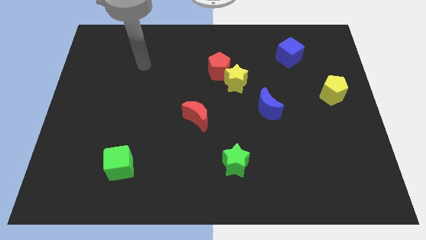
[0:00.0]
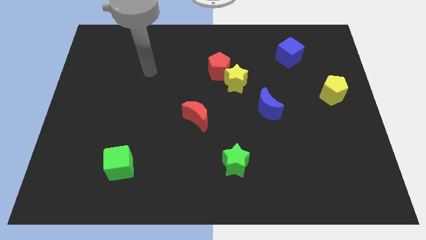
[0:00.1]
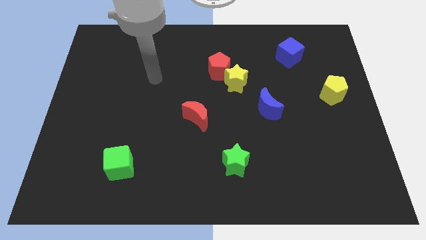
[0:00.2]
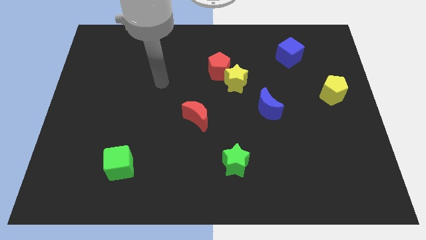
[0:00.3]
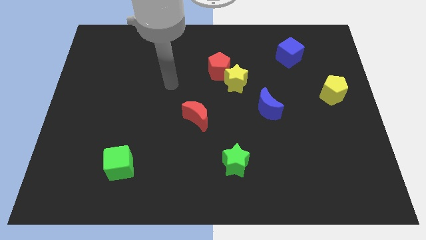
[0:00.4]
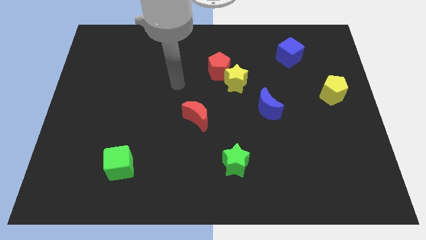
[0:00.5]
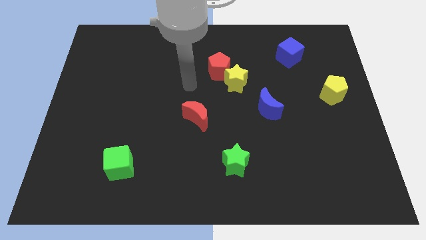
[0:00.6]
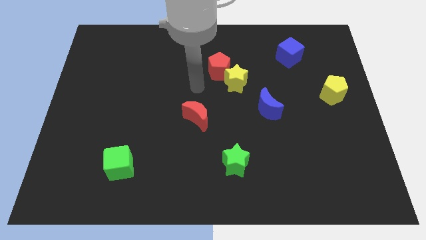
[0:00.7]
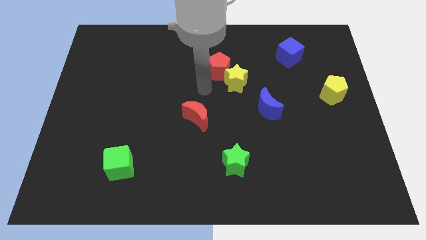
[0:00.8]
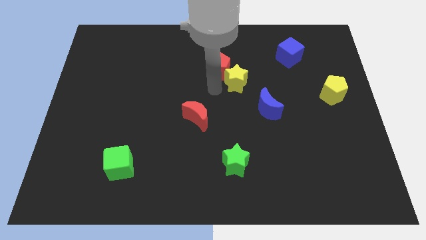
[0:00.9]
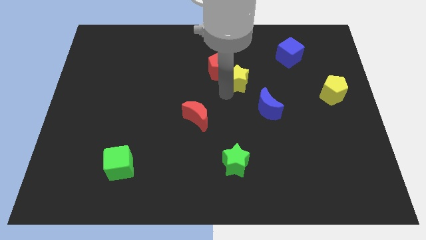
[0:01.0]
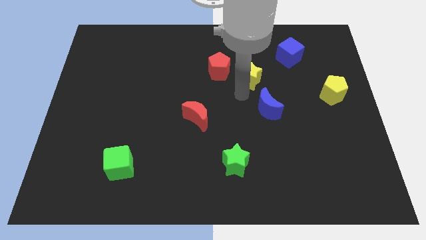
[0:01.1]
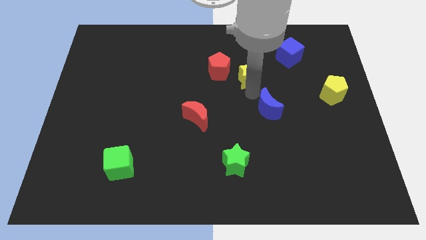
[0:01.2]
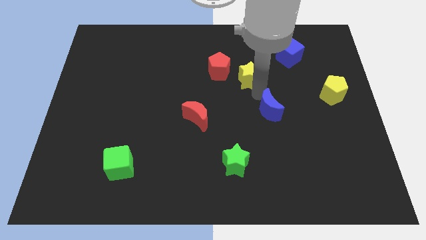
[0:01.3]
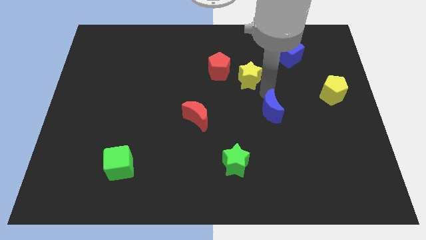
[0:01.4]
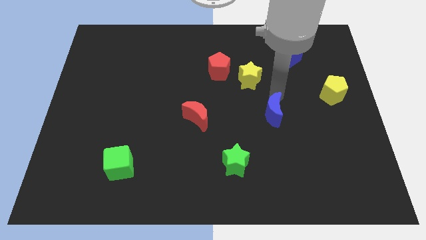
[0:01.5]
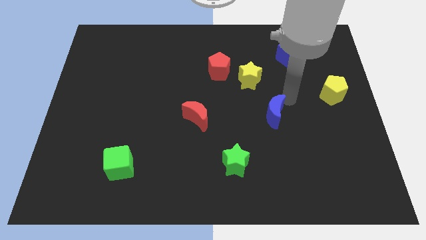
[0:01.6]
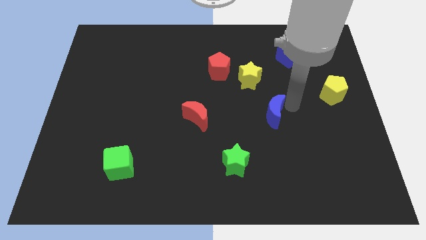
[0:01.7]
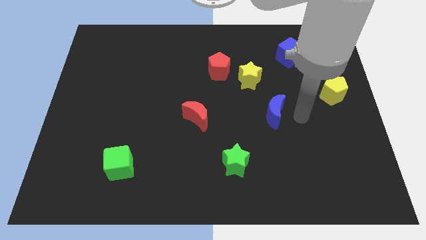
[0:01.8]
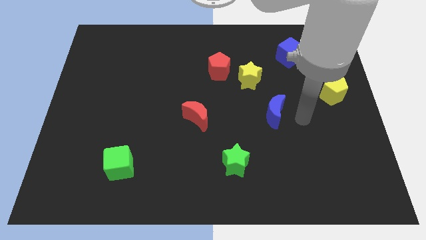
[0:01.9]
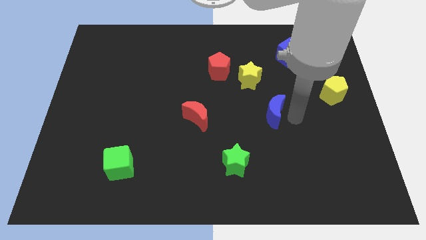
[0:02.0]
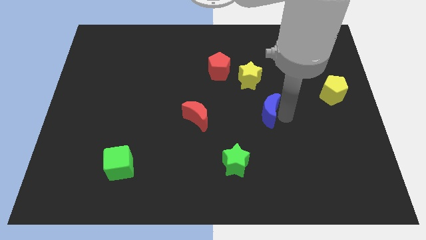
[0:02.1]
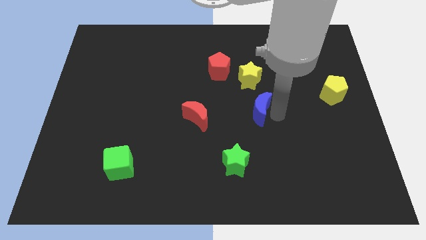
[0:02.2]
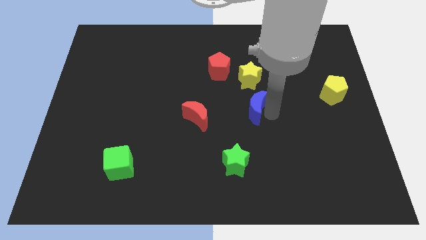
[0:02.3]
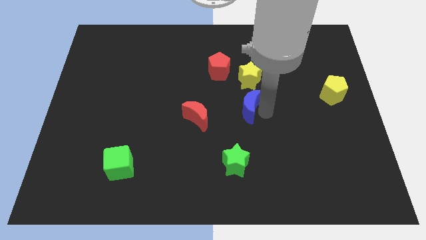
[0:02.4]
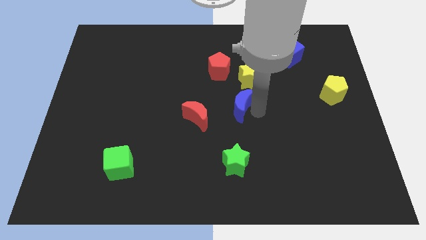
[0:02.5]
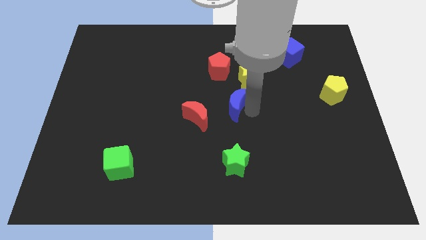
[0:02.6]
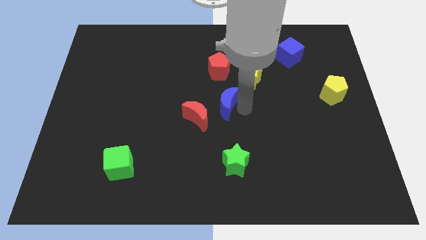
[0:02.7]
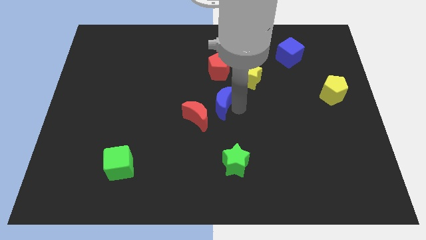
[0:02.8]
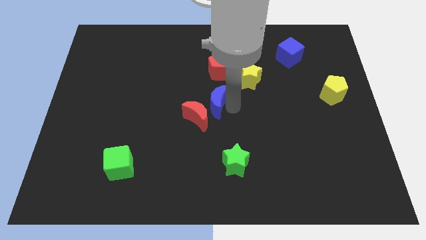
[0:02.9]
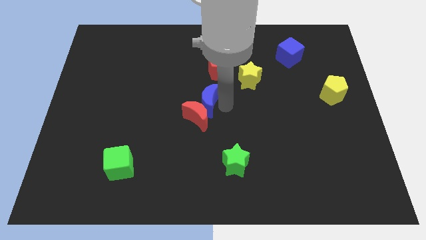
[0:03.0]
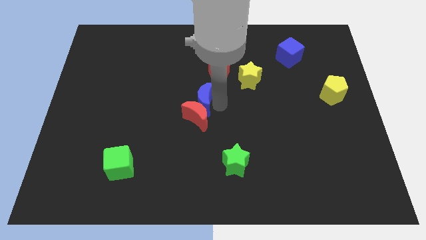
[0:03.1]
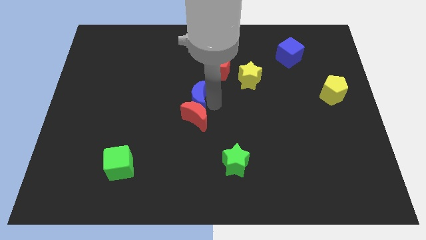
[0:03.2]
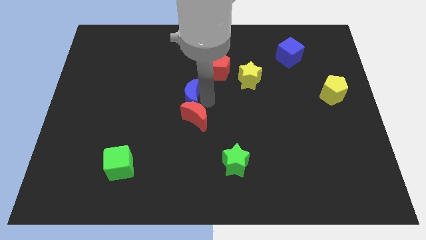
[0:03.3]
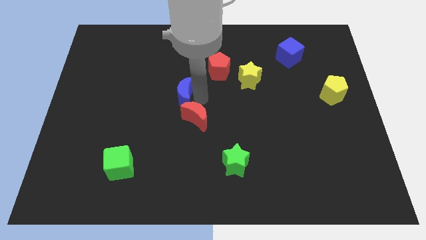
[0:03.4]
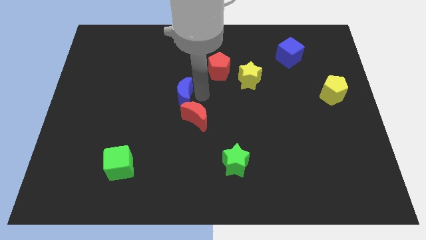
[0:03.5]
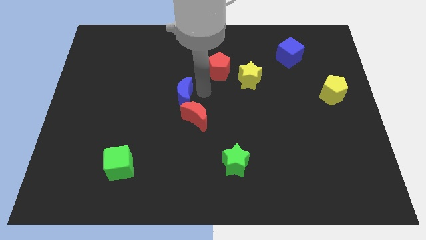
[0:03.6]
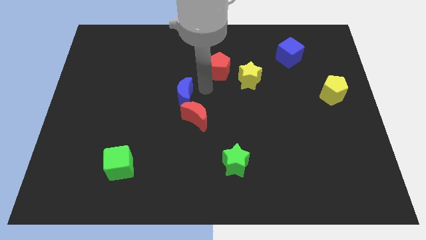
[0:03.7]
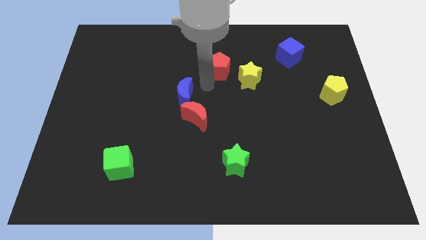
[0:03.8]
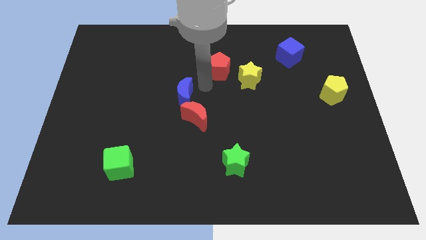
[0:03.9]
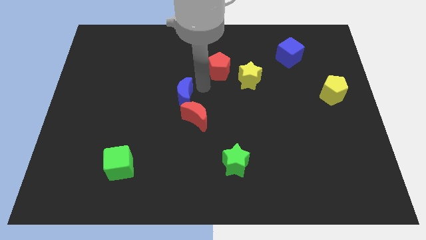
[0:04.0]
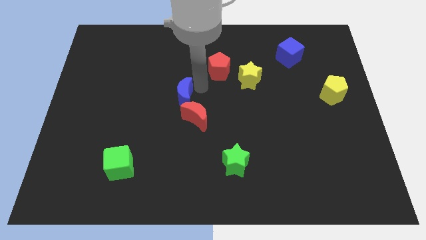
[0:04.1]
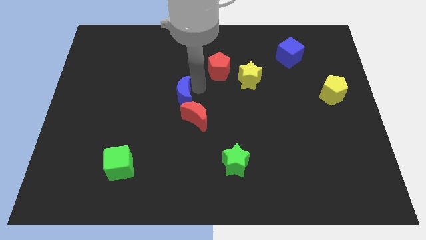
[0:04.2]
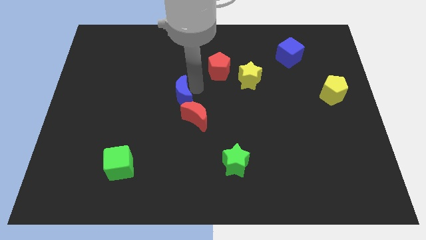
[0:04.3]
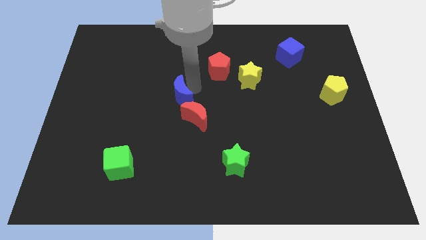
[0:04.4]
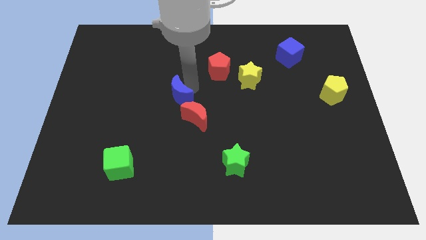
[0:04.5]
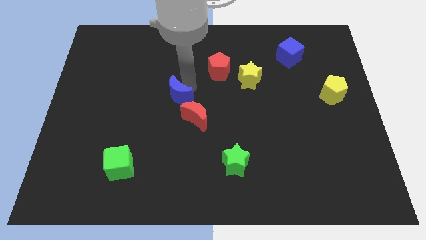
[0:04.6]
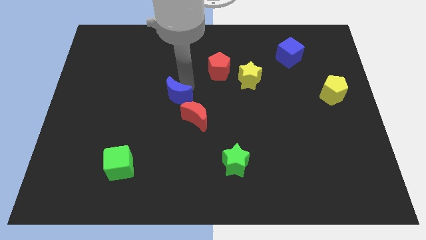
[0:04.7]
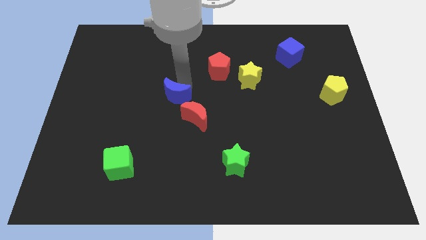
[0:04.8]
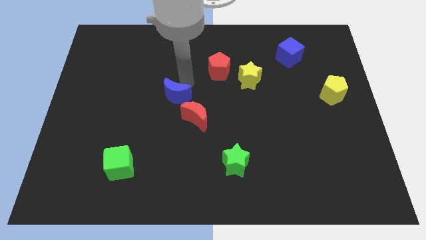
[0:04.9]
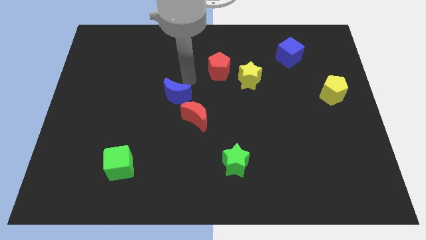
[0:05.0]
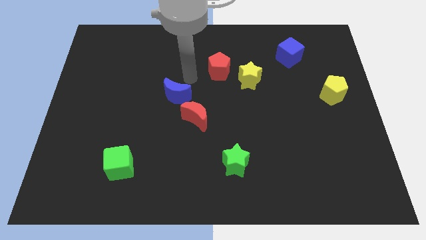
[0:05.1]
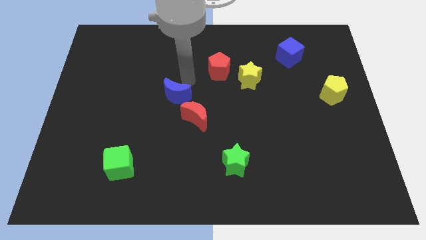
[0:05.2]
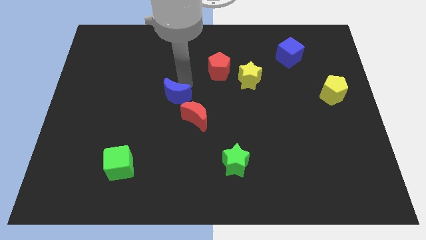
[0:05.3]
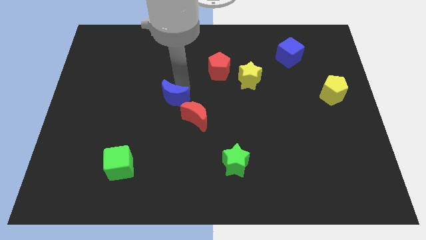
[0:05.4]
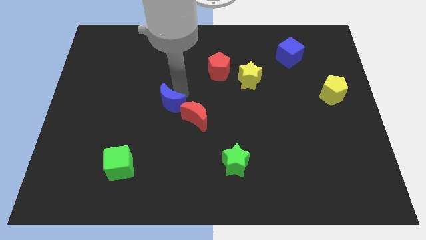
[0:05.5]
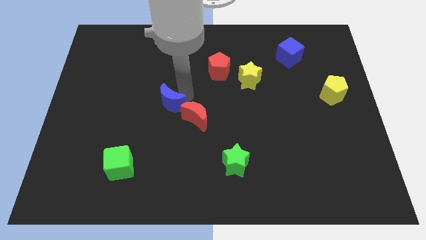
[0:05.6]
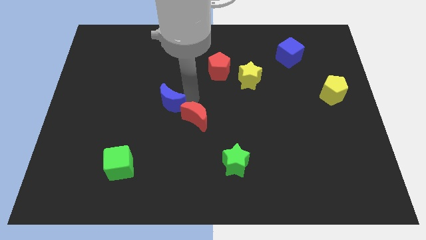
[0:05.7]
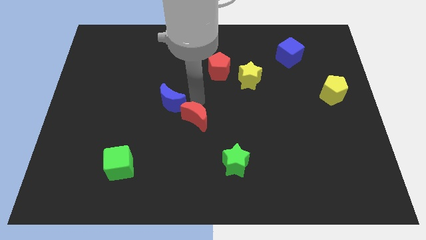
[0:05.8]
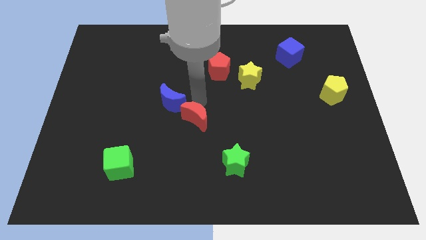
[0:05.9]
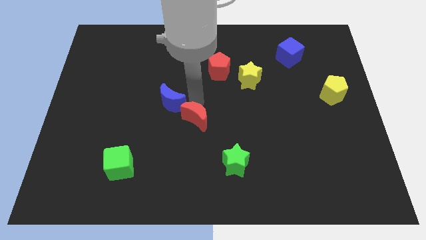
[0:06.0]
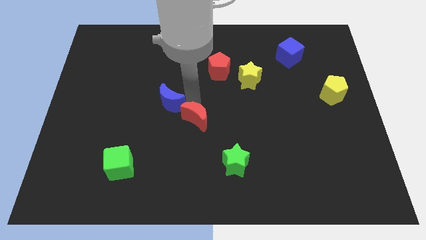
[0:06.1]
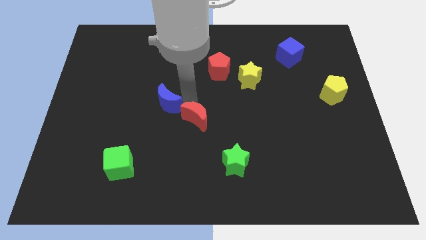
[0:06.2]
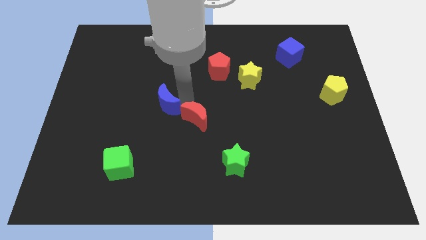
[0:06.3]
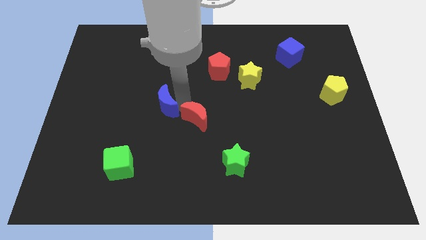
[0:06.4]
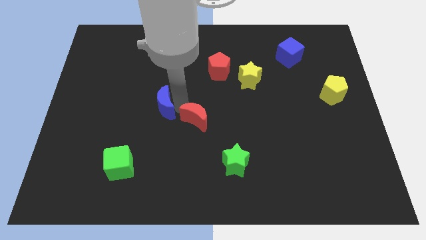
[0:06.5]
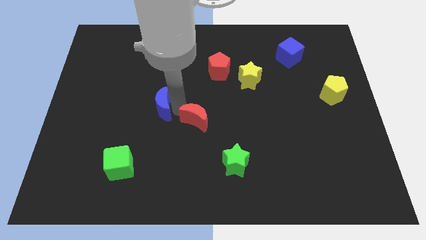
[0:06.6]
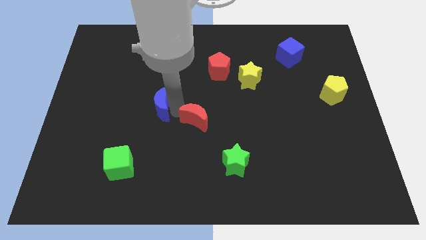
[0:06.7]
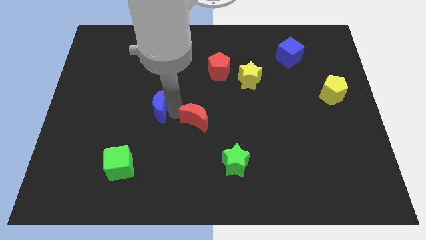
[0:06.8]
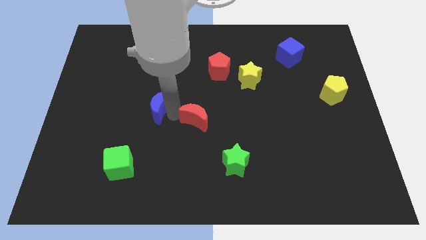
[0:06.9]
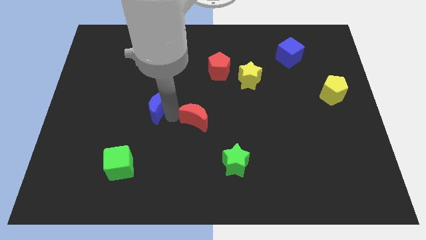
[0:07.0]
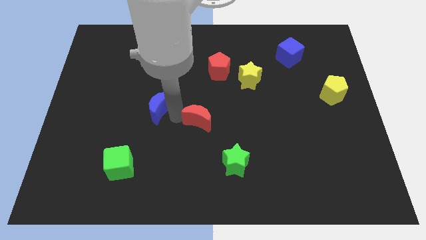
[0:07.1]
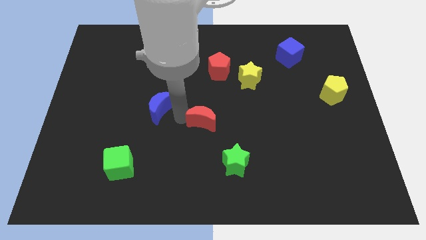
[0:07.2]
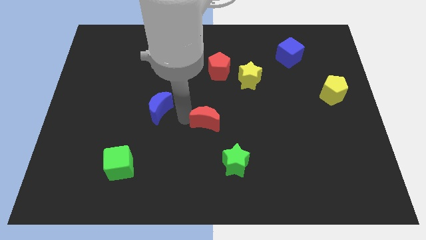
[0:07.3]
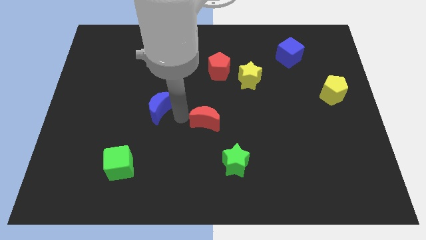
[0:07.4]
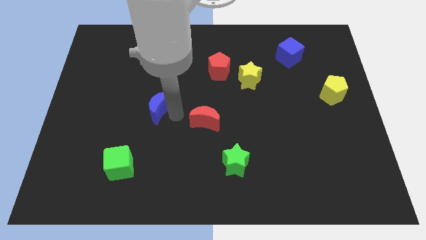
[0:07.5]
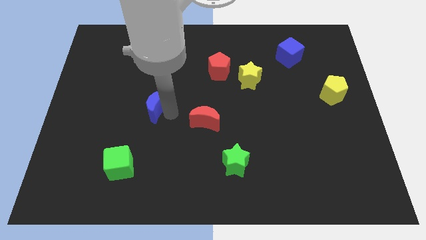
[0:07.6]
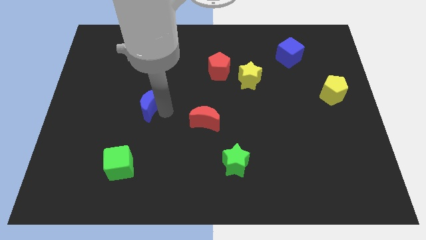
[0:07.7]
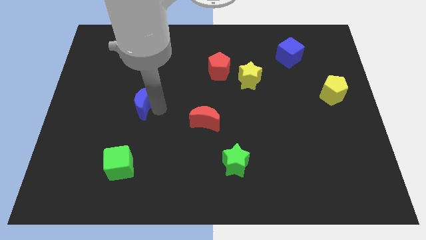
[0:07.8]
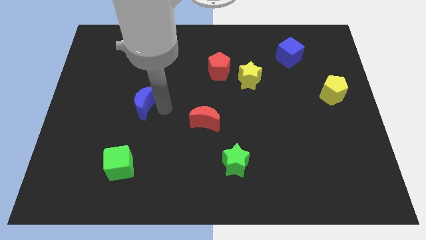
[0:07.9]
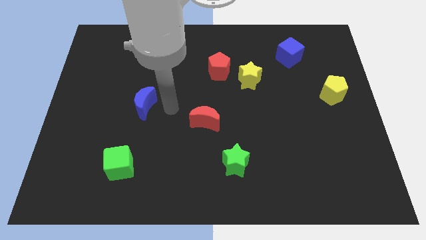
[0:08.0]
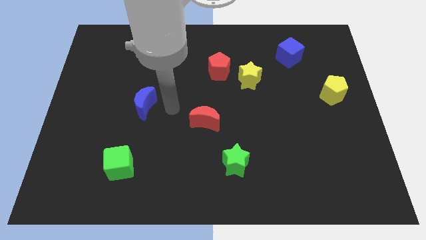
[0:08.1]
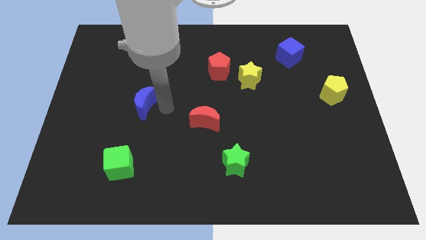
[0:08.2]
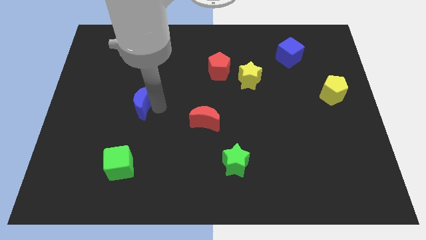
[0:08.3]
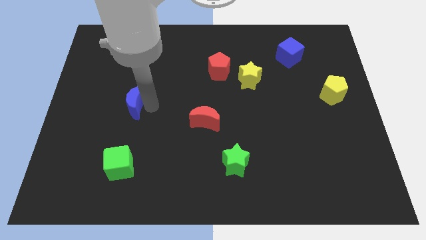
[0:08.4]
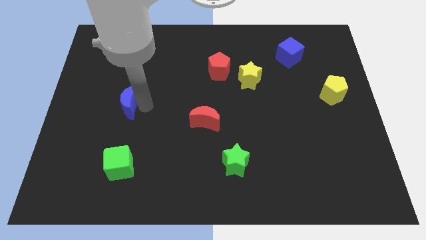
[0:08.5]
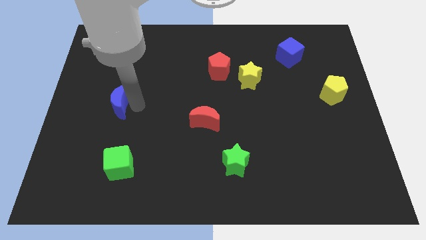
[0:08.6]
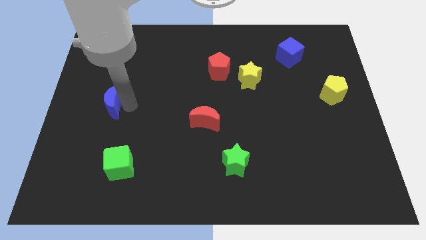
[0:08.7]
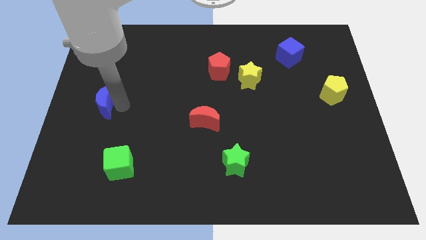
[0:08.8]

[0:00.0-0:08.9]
slide the blue moon to the left side of the board
